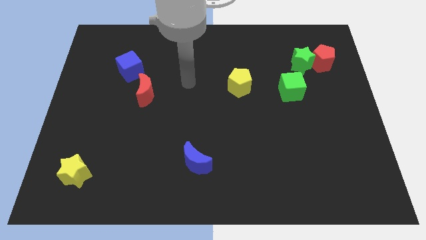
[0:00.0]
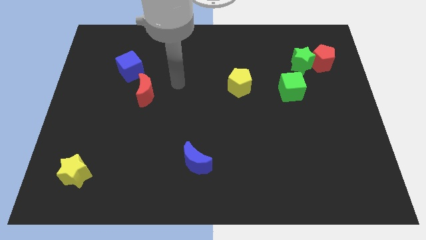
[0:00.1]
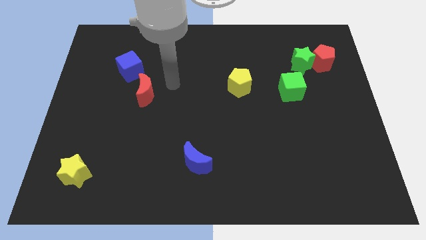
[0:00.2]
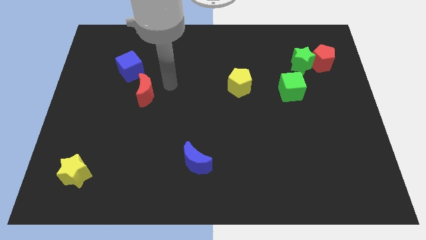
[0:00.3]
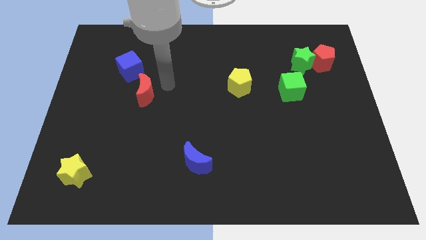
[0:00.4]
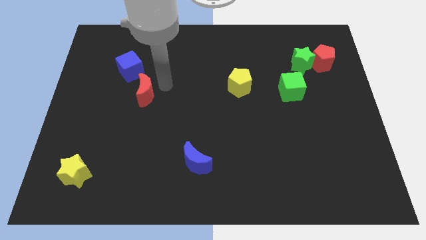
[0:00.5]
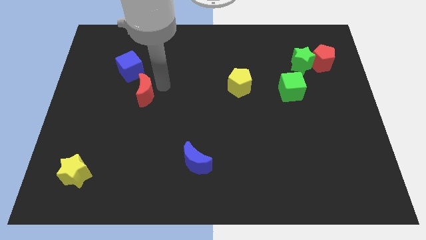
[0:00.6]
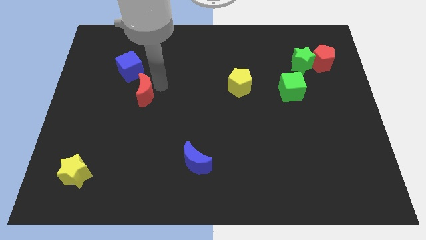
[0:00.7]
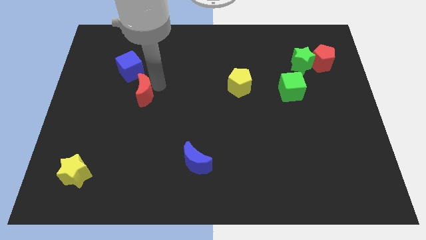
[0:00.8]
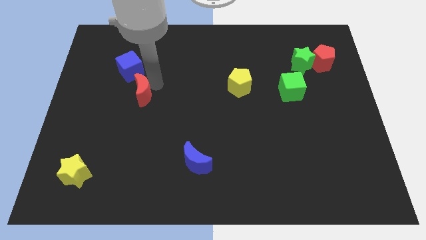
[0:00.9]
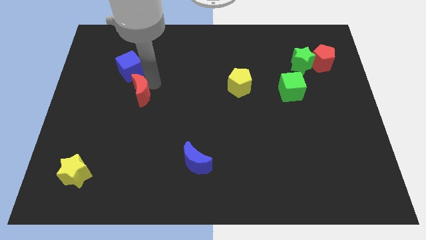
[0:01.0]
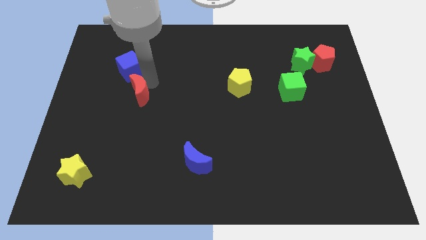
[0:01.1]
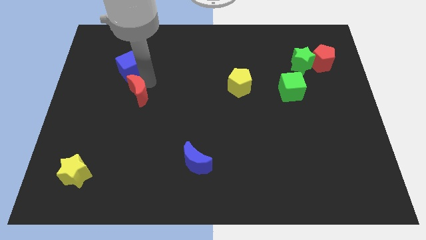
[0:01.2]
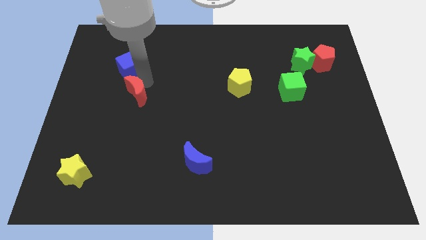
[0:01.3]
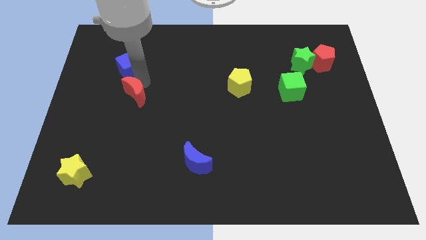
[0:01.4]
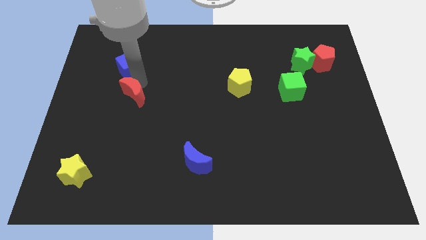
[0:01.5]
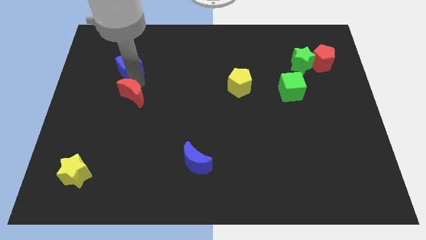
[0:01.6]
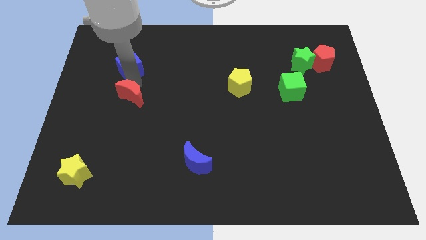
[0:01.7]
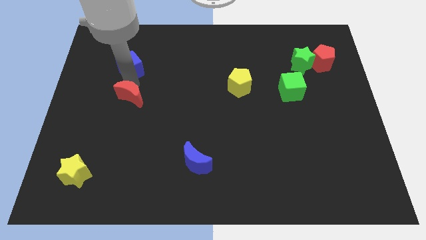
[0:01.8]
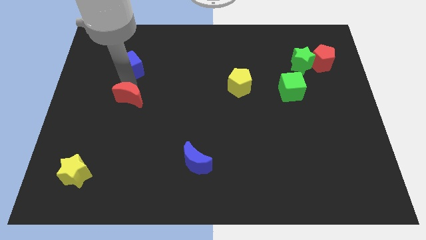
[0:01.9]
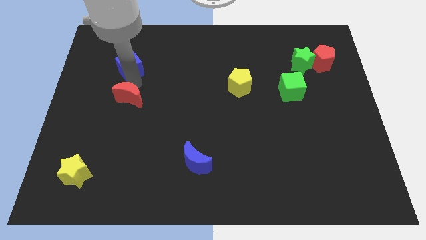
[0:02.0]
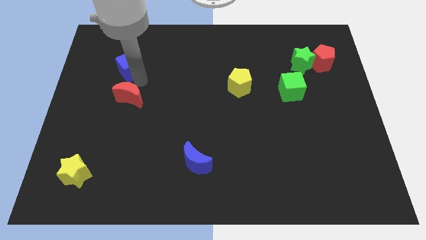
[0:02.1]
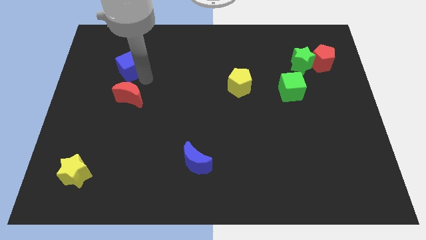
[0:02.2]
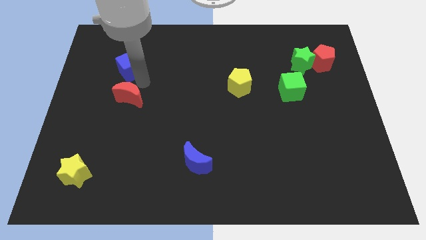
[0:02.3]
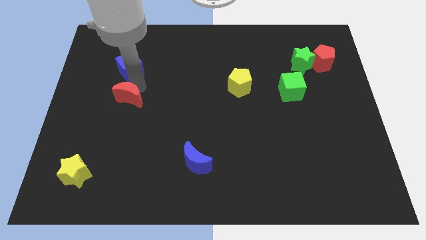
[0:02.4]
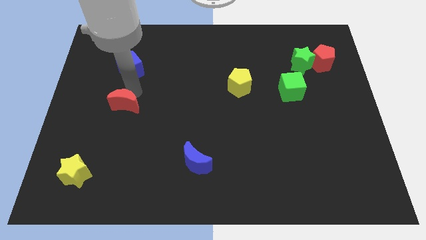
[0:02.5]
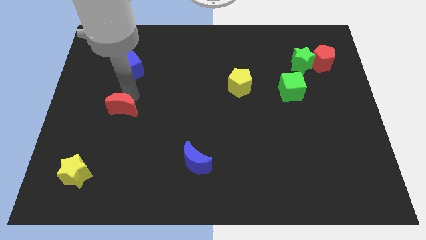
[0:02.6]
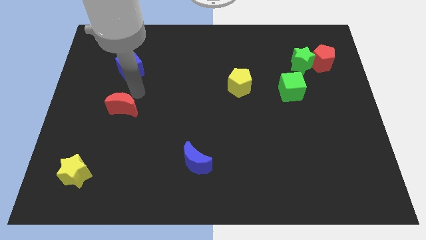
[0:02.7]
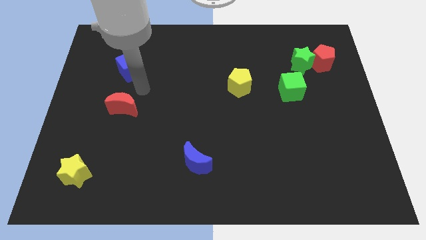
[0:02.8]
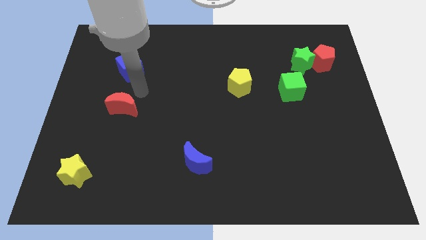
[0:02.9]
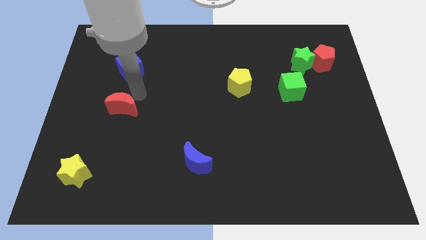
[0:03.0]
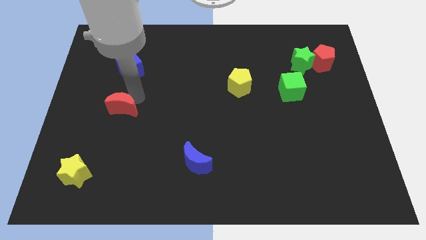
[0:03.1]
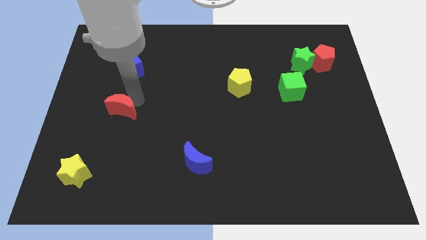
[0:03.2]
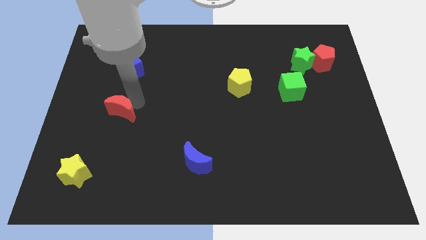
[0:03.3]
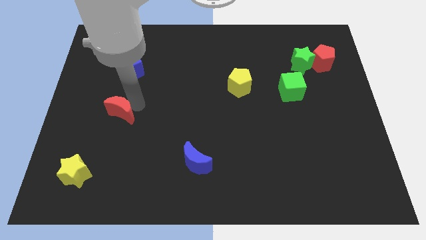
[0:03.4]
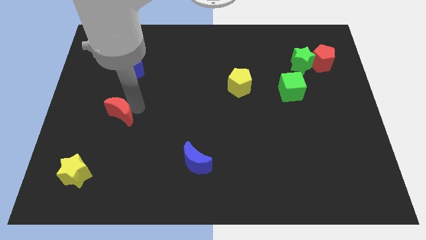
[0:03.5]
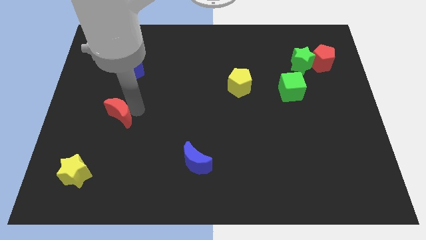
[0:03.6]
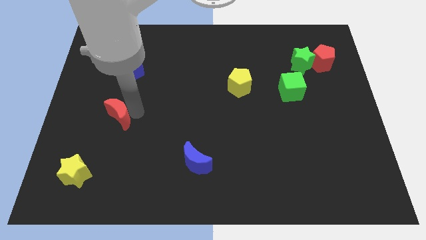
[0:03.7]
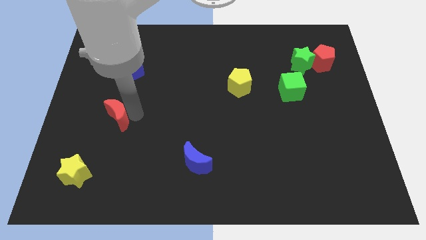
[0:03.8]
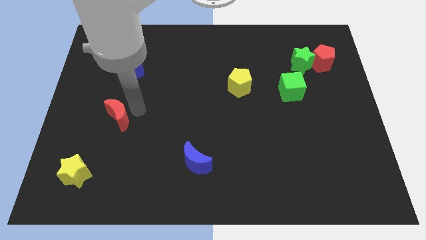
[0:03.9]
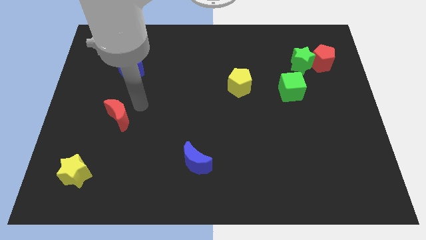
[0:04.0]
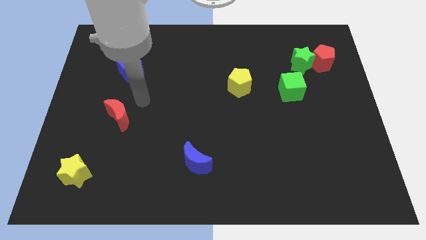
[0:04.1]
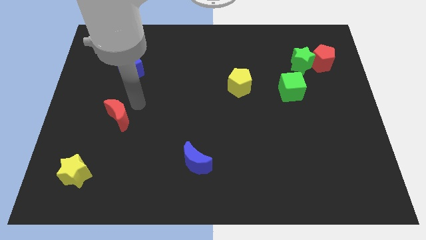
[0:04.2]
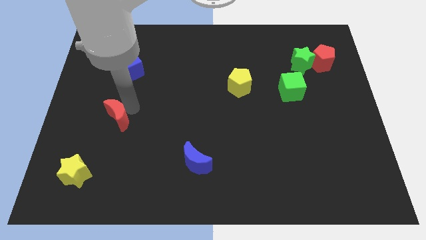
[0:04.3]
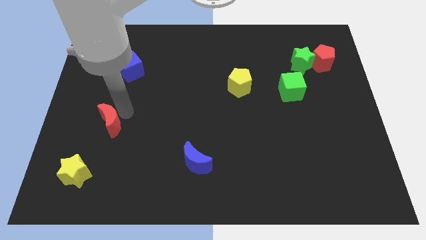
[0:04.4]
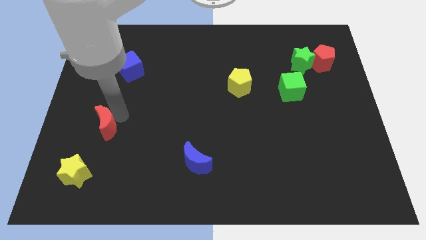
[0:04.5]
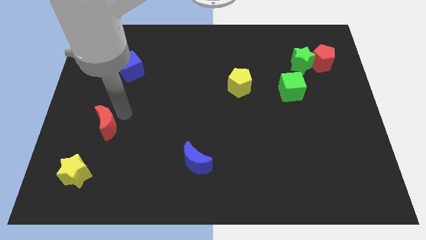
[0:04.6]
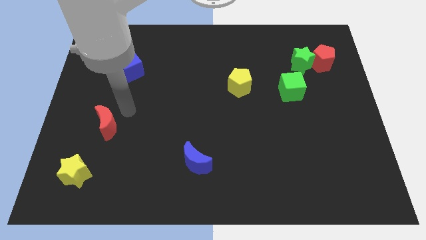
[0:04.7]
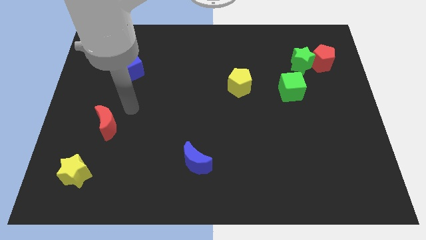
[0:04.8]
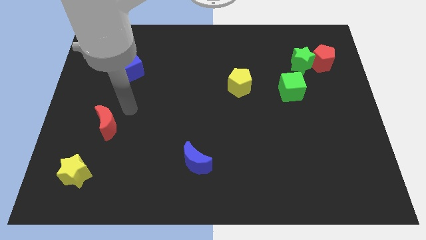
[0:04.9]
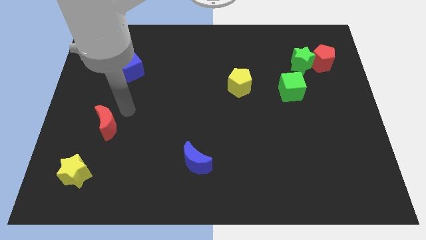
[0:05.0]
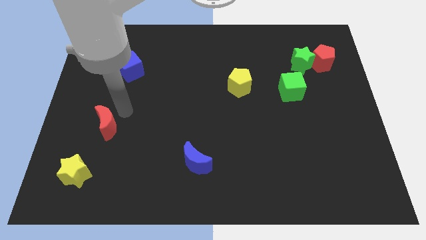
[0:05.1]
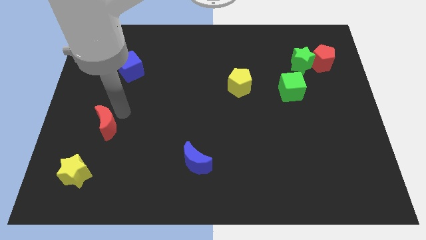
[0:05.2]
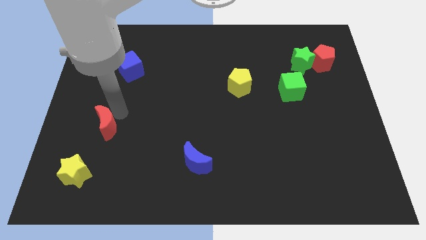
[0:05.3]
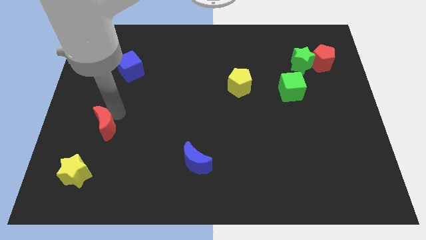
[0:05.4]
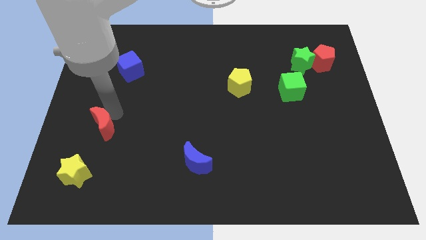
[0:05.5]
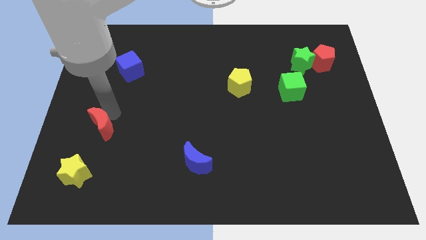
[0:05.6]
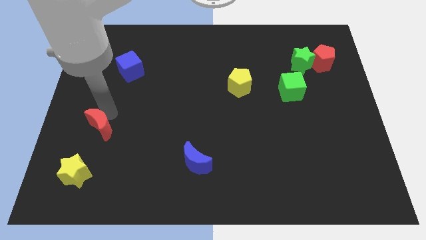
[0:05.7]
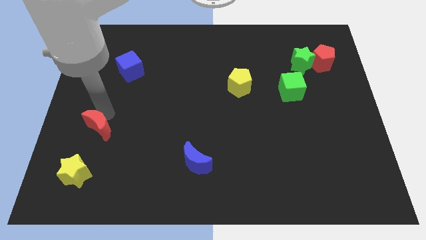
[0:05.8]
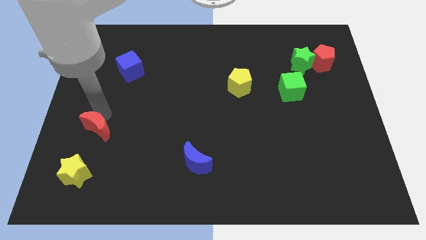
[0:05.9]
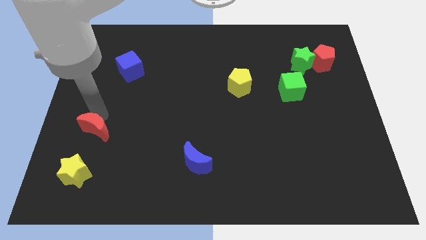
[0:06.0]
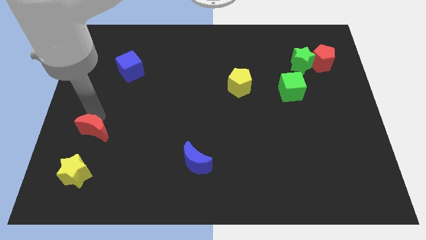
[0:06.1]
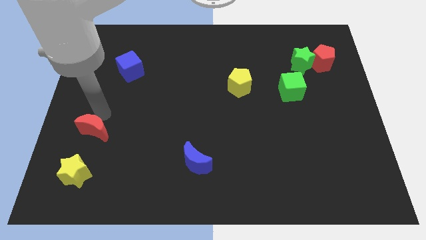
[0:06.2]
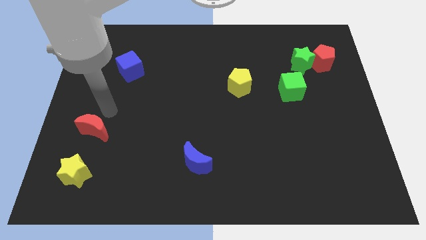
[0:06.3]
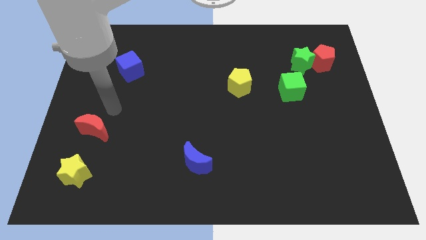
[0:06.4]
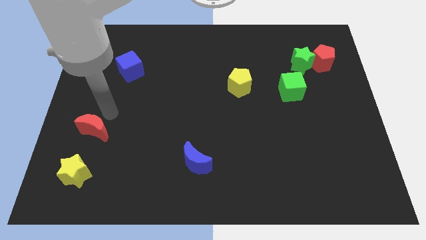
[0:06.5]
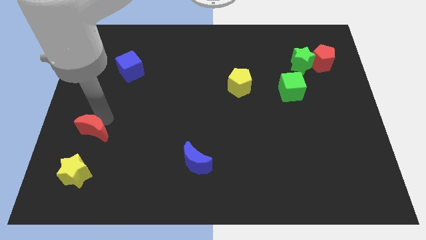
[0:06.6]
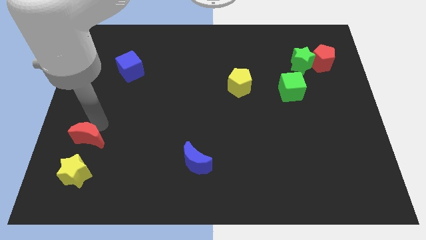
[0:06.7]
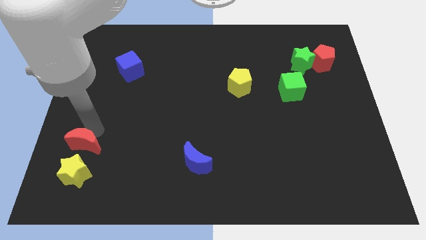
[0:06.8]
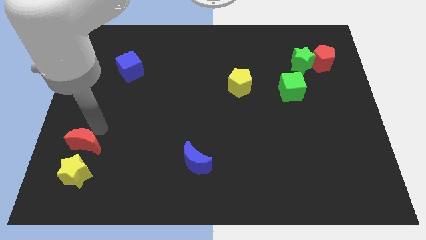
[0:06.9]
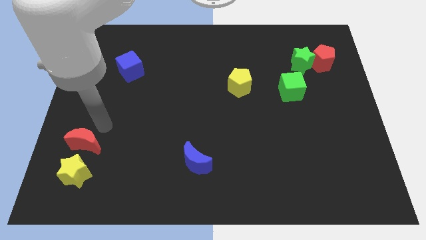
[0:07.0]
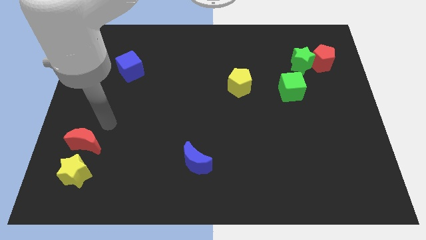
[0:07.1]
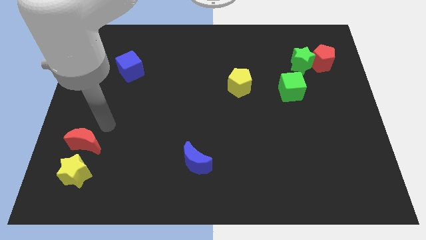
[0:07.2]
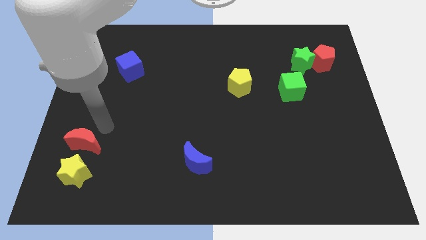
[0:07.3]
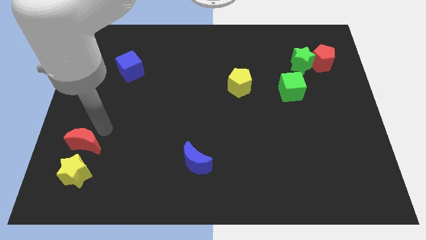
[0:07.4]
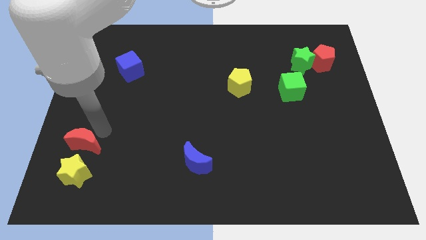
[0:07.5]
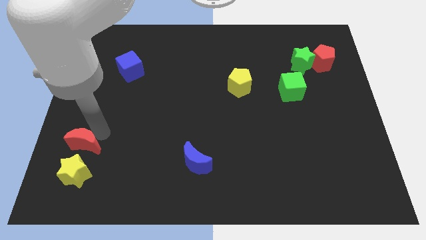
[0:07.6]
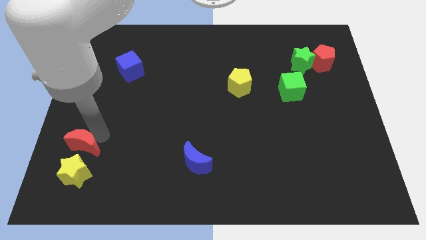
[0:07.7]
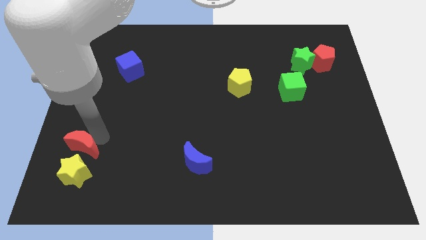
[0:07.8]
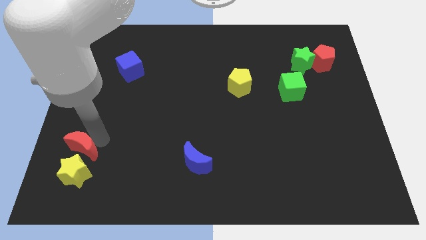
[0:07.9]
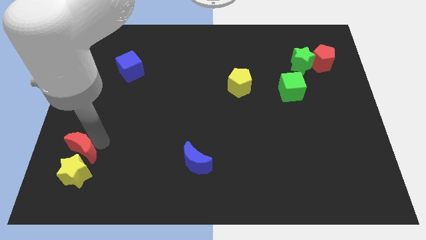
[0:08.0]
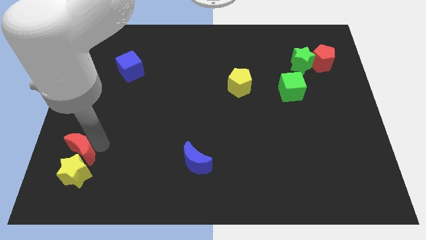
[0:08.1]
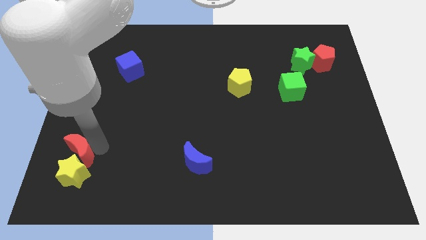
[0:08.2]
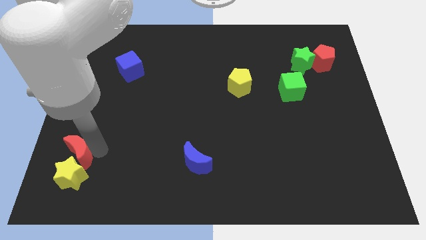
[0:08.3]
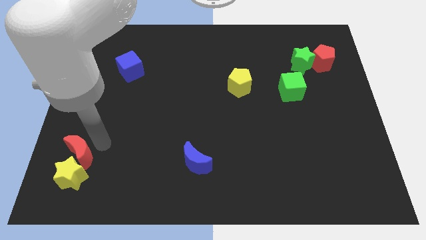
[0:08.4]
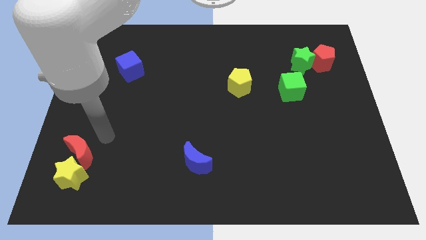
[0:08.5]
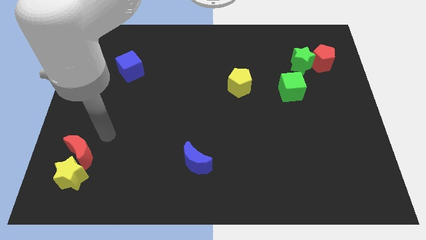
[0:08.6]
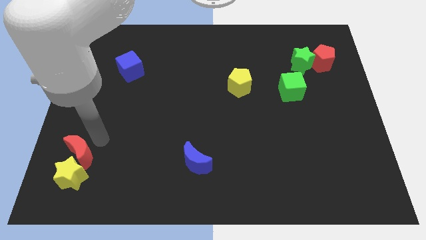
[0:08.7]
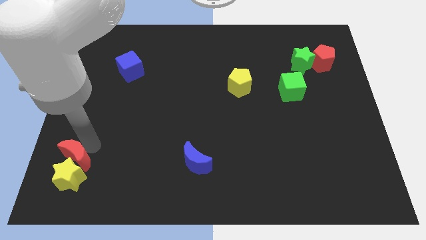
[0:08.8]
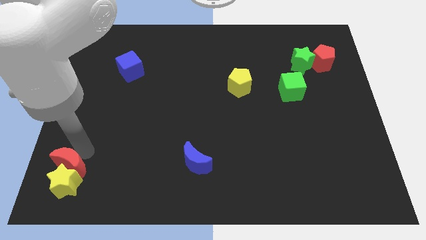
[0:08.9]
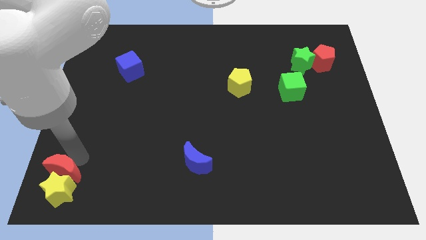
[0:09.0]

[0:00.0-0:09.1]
move the red moon to the bottom left corner
